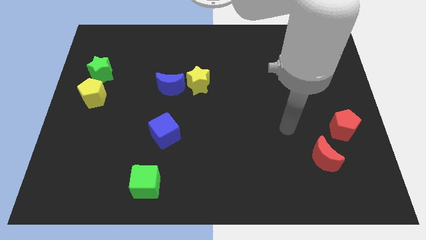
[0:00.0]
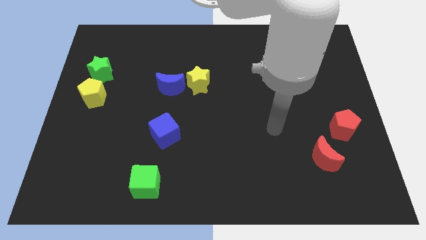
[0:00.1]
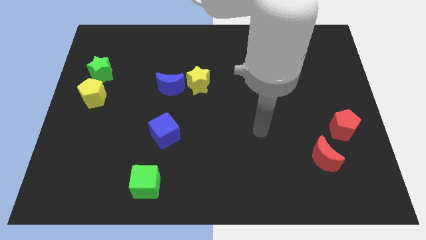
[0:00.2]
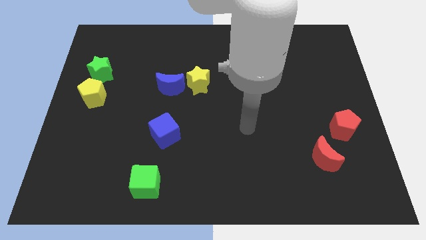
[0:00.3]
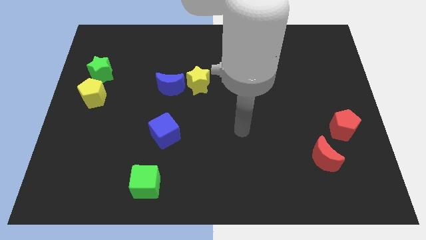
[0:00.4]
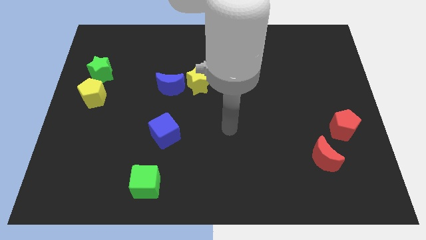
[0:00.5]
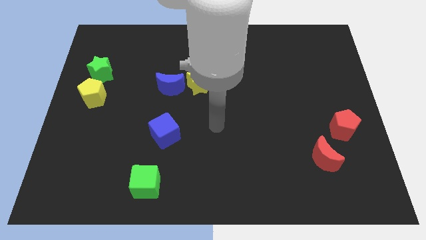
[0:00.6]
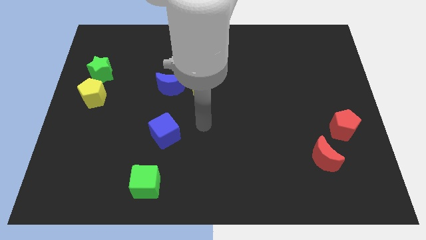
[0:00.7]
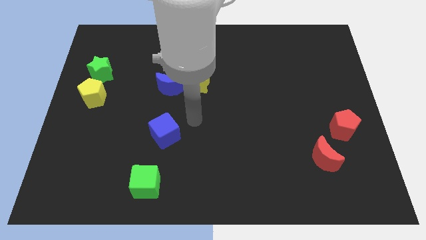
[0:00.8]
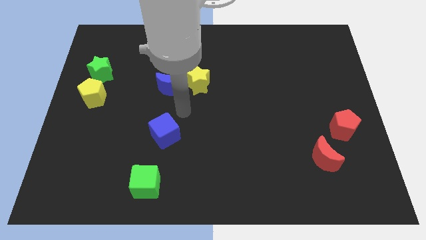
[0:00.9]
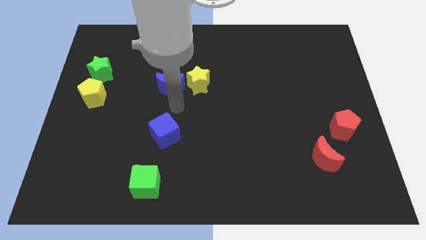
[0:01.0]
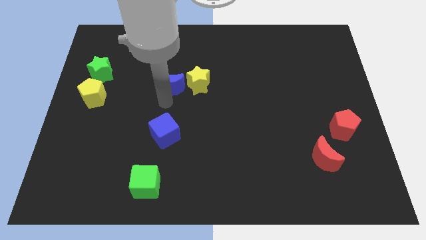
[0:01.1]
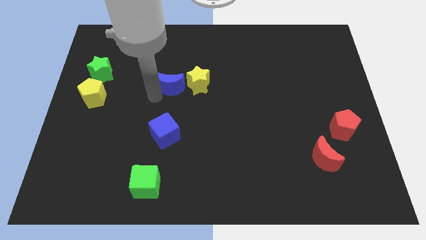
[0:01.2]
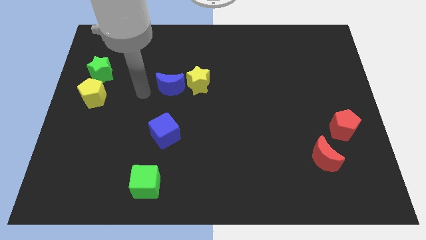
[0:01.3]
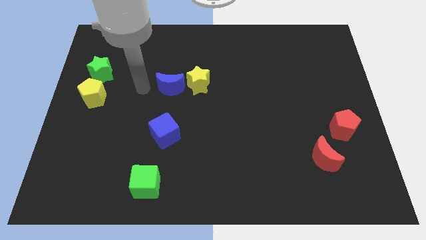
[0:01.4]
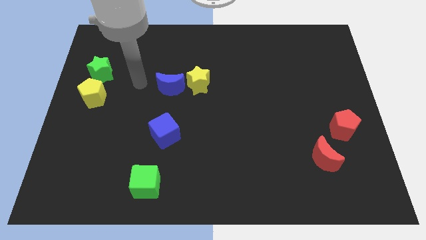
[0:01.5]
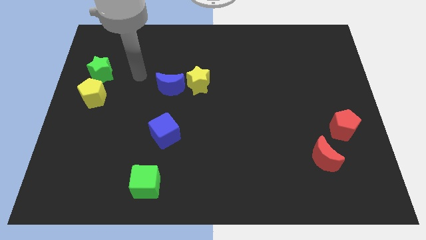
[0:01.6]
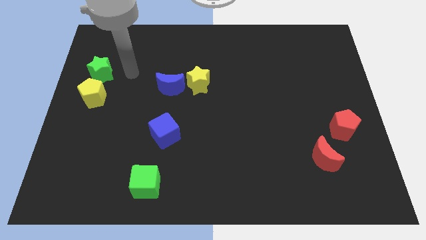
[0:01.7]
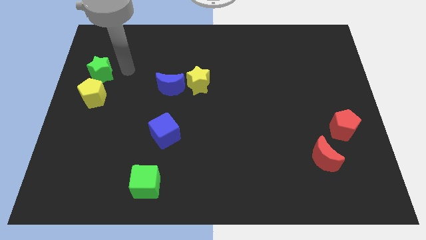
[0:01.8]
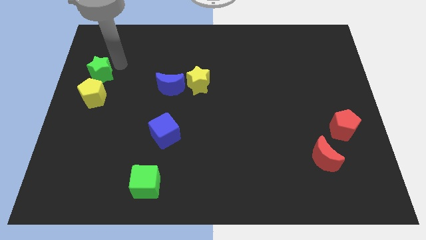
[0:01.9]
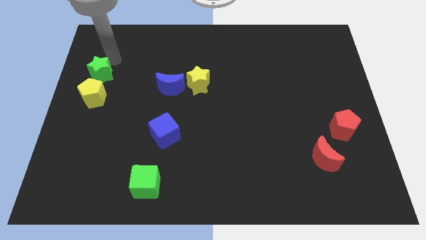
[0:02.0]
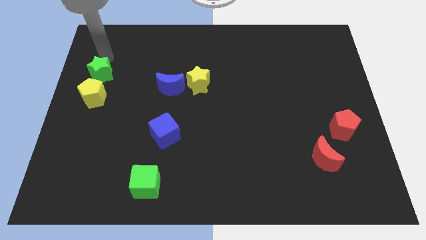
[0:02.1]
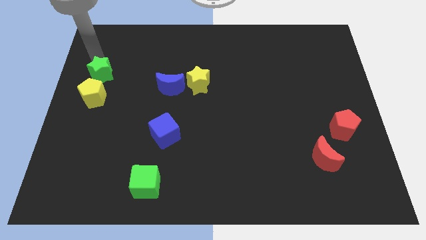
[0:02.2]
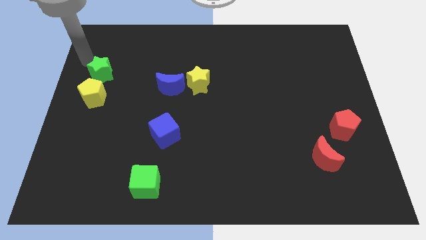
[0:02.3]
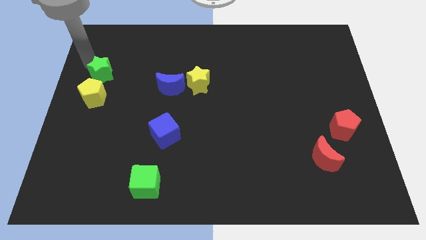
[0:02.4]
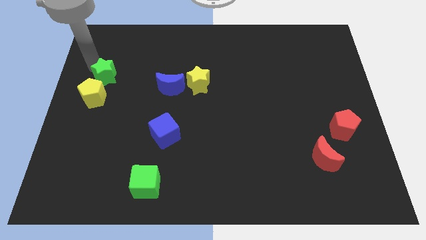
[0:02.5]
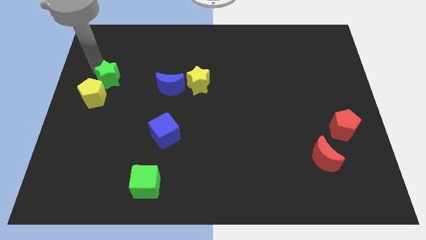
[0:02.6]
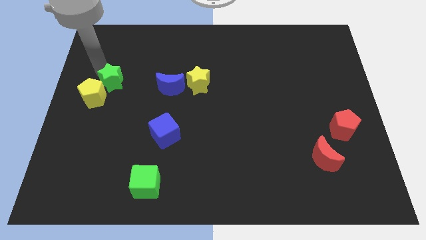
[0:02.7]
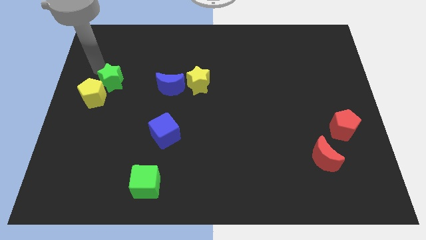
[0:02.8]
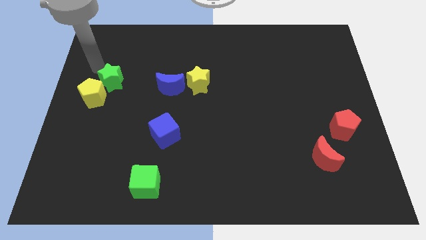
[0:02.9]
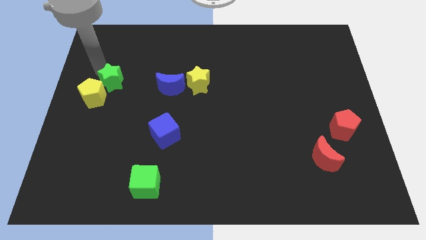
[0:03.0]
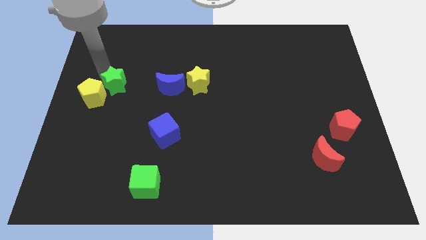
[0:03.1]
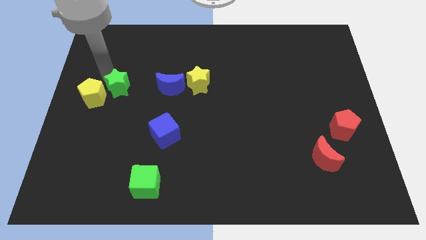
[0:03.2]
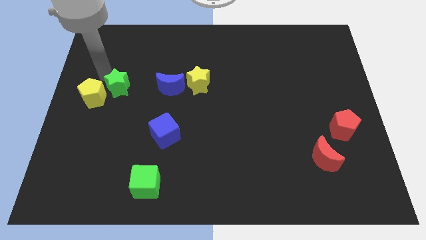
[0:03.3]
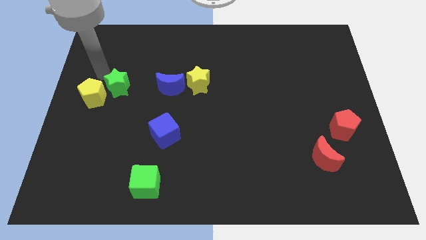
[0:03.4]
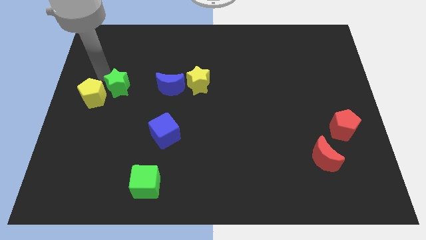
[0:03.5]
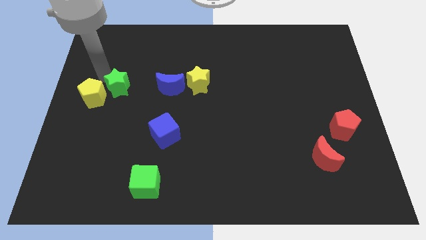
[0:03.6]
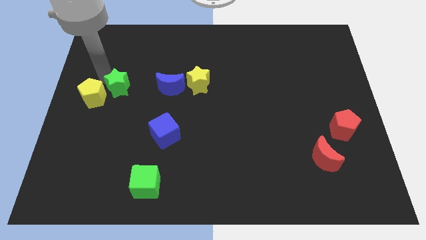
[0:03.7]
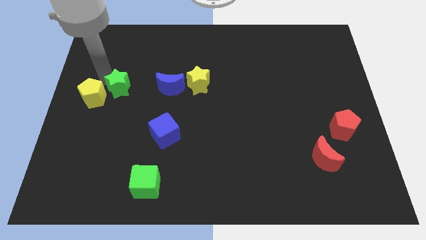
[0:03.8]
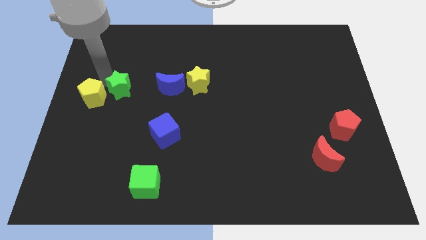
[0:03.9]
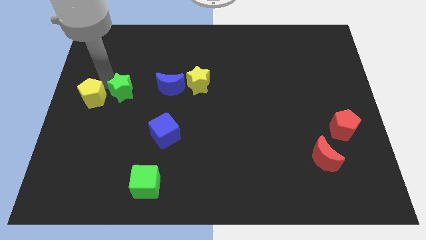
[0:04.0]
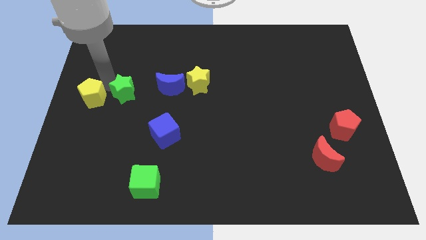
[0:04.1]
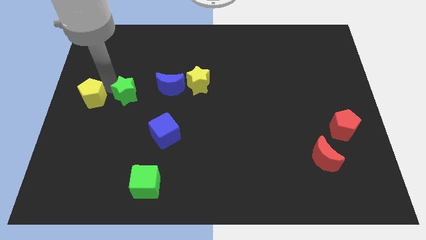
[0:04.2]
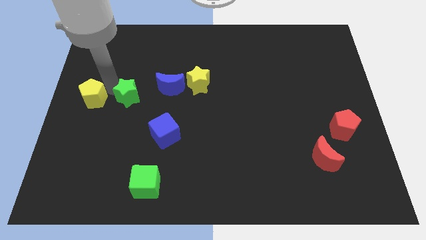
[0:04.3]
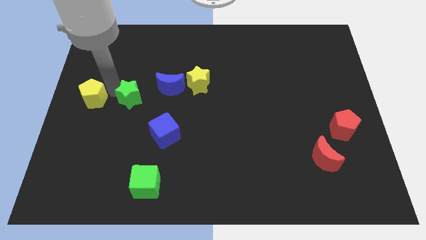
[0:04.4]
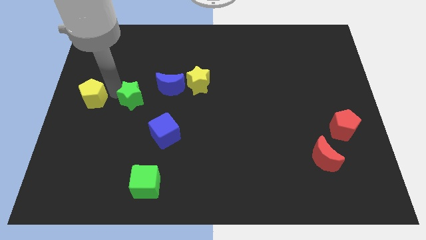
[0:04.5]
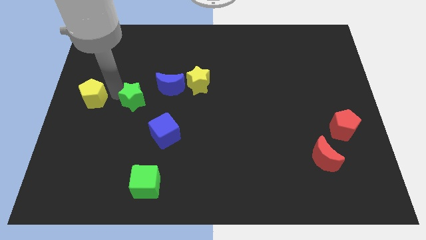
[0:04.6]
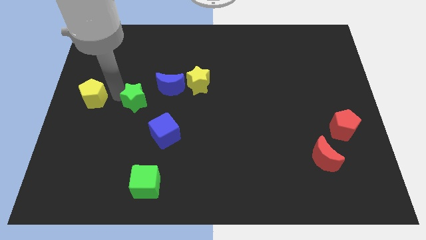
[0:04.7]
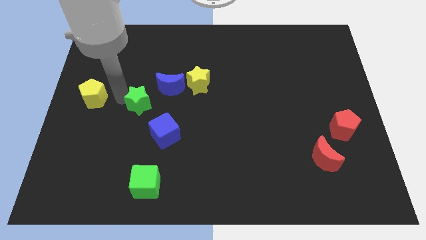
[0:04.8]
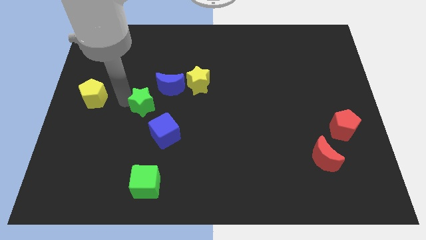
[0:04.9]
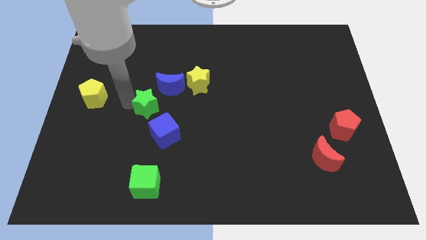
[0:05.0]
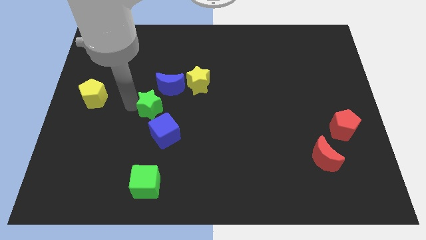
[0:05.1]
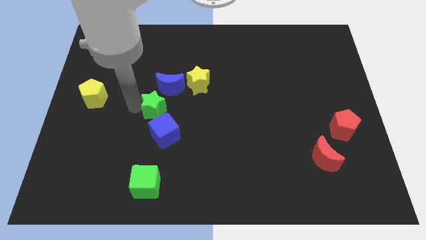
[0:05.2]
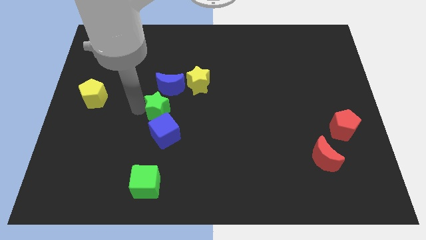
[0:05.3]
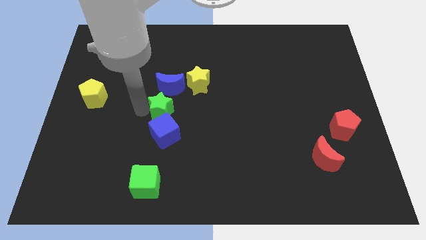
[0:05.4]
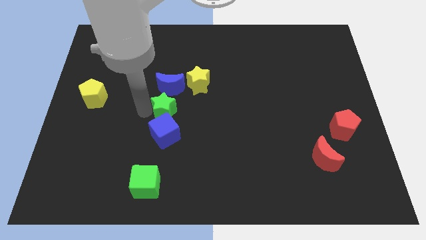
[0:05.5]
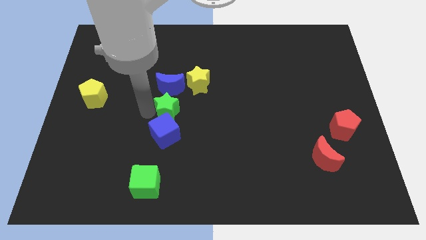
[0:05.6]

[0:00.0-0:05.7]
slide the green star to the bottom right of the blue moon

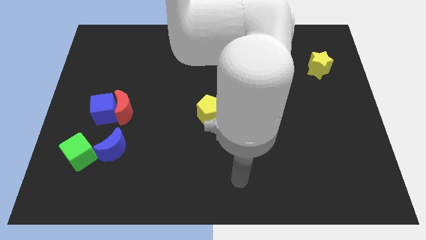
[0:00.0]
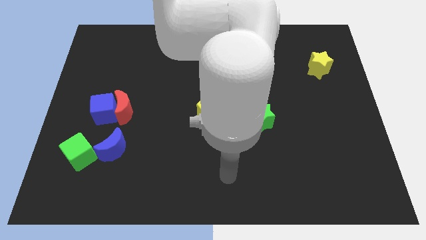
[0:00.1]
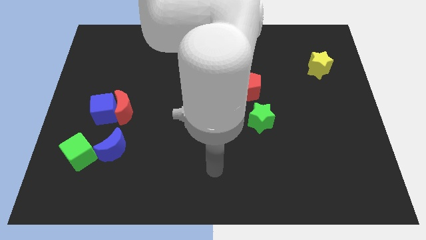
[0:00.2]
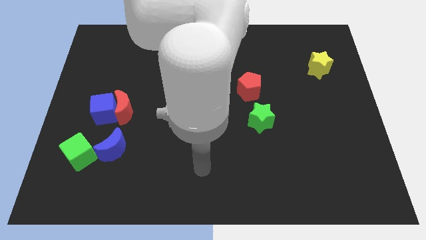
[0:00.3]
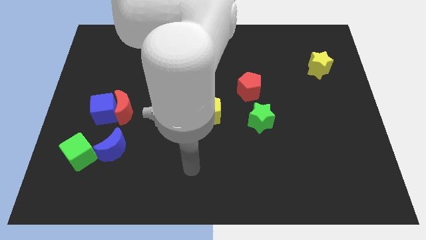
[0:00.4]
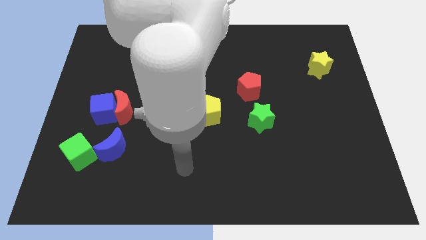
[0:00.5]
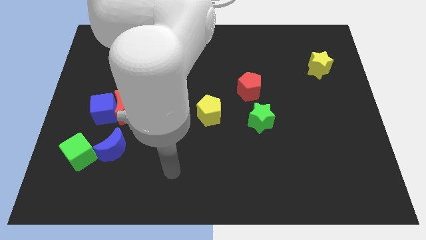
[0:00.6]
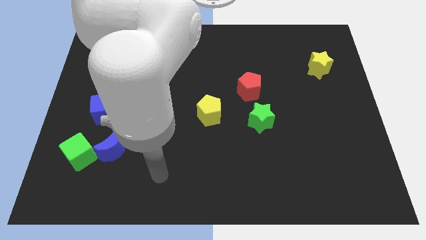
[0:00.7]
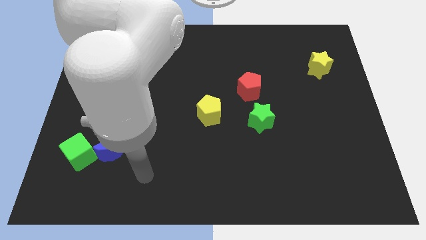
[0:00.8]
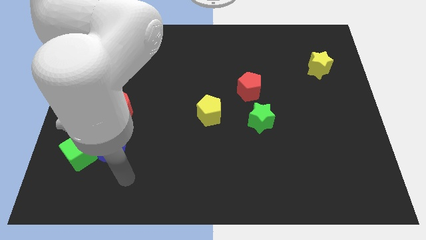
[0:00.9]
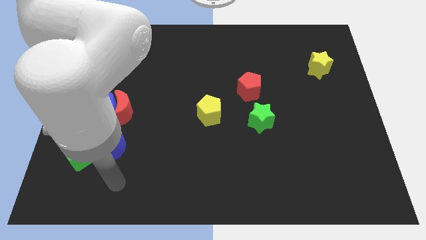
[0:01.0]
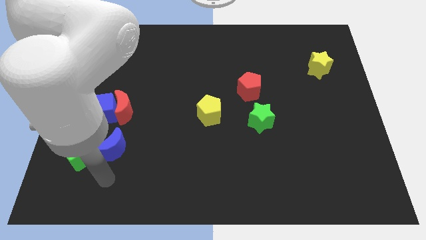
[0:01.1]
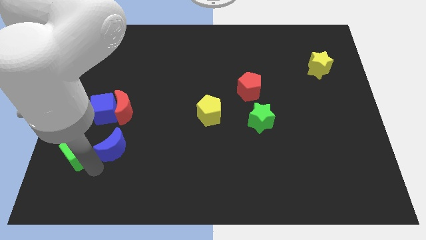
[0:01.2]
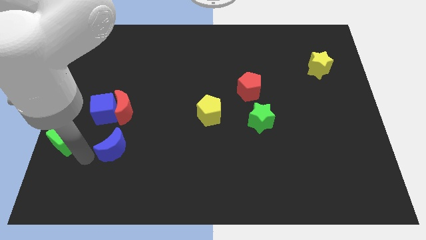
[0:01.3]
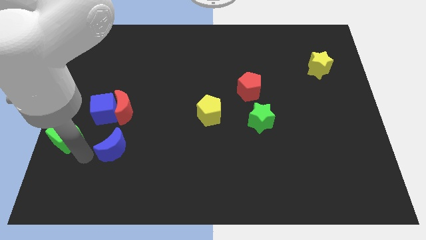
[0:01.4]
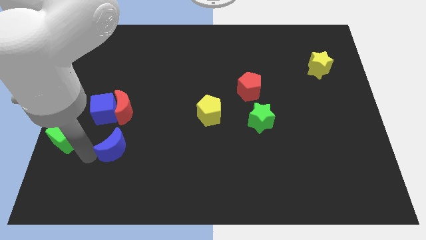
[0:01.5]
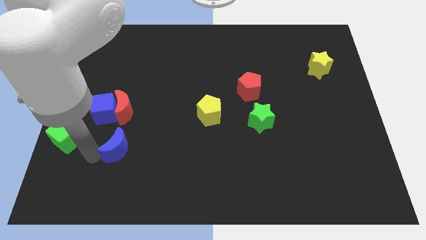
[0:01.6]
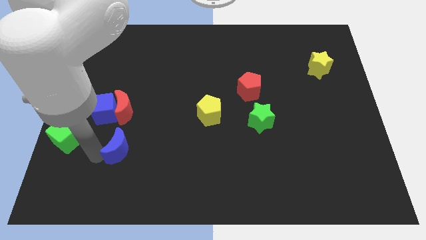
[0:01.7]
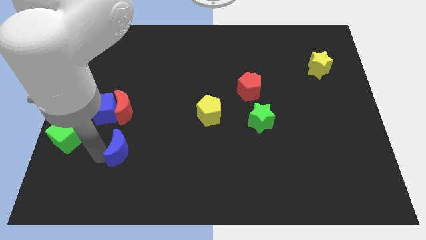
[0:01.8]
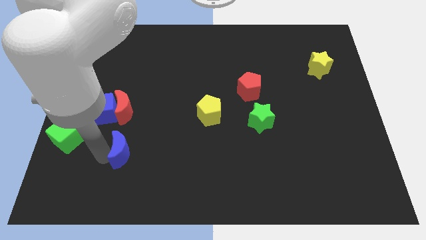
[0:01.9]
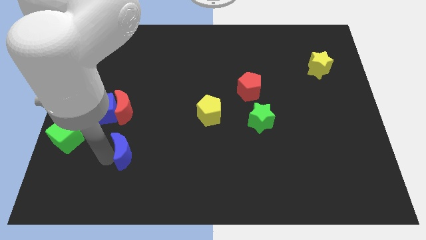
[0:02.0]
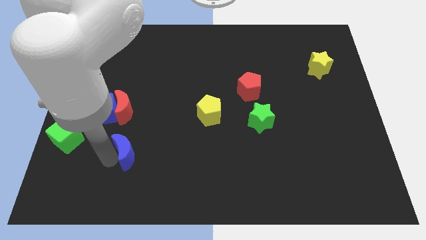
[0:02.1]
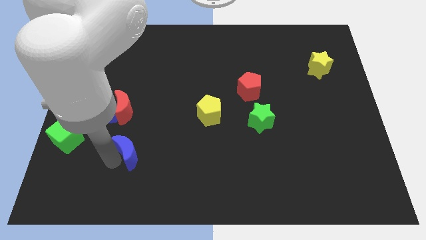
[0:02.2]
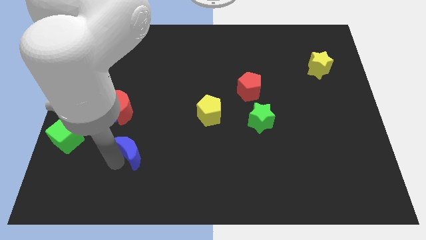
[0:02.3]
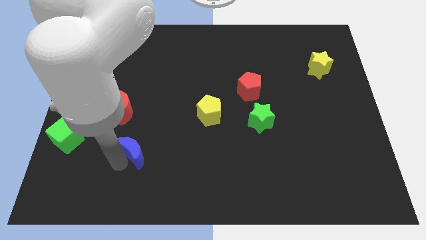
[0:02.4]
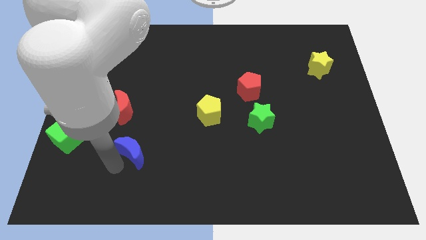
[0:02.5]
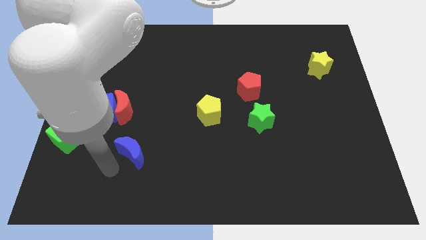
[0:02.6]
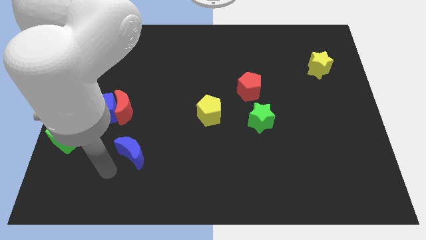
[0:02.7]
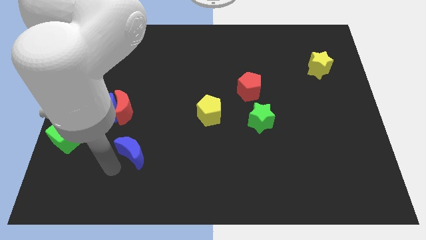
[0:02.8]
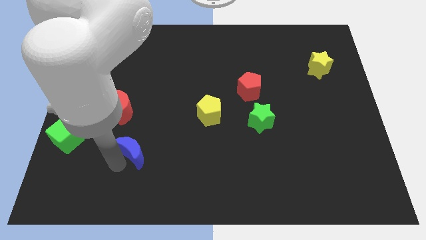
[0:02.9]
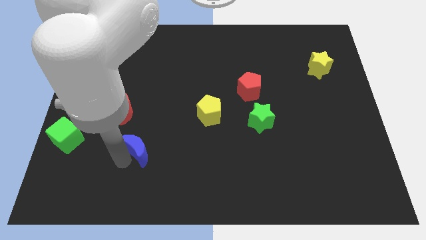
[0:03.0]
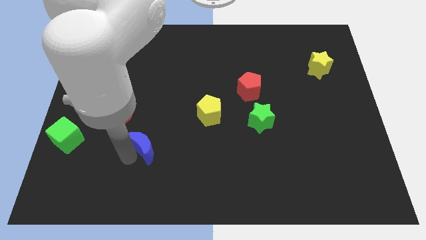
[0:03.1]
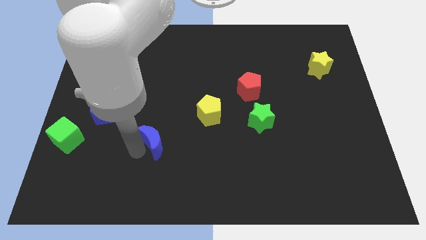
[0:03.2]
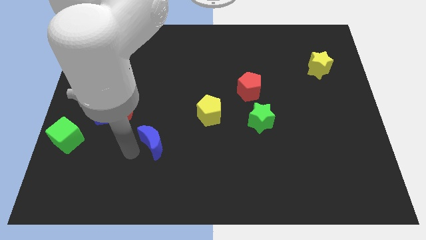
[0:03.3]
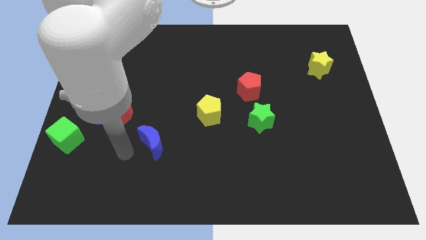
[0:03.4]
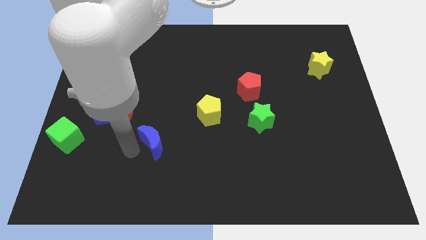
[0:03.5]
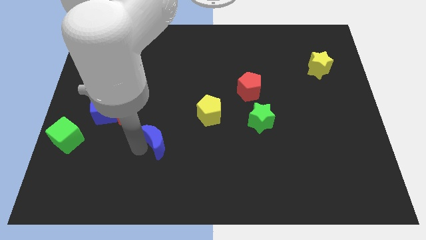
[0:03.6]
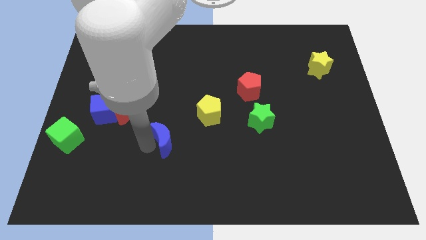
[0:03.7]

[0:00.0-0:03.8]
slide the blue moon diagonally down and to the left of the yellow pentagon
